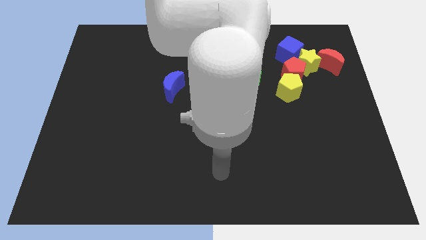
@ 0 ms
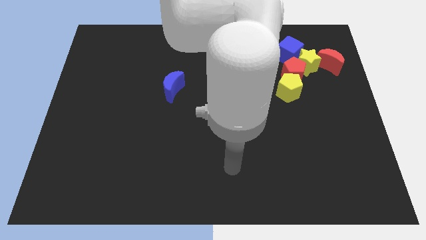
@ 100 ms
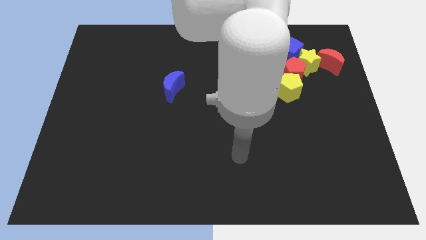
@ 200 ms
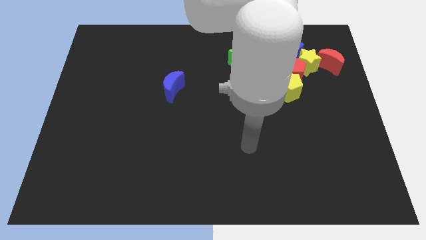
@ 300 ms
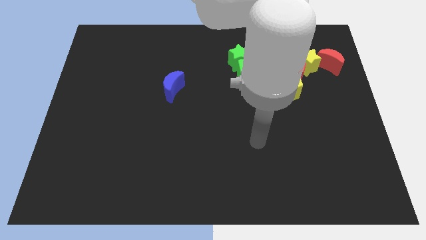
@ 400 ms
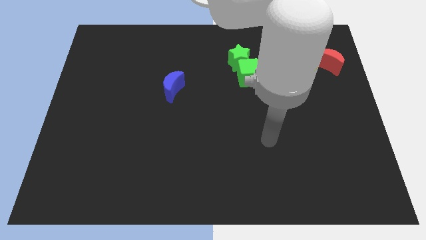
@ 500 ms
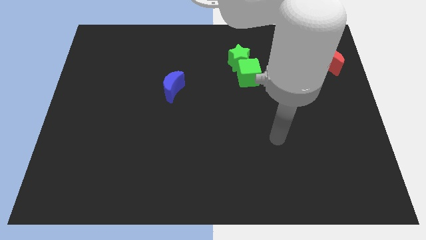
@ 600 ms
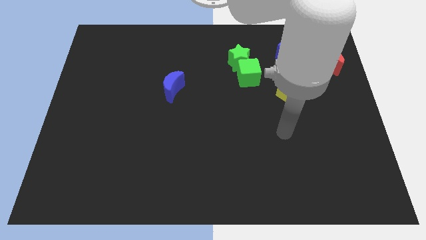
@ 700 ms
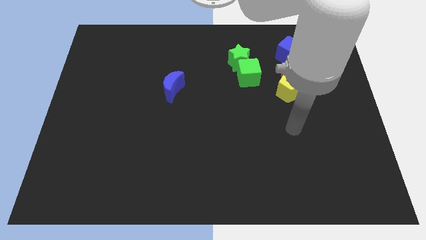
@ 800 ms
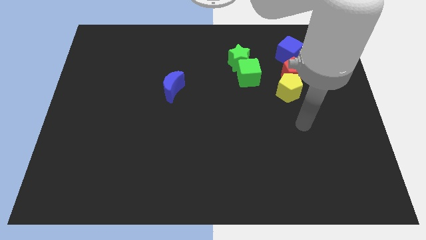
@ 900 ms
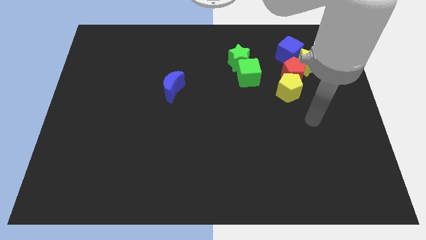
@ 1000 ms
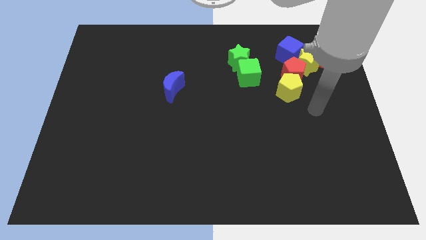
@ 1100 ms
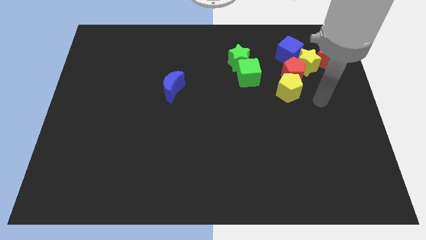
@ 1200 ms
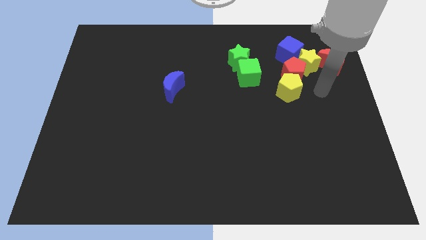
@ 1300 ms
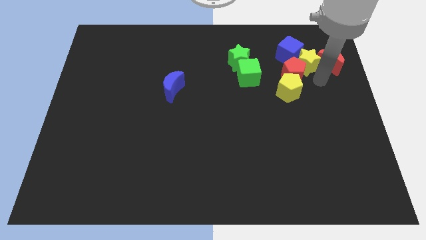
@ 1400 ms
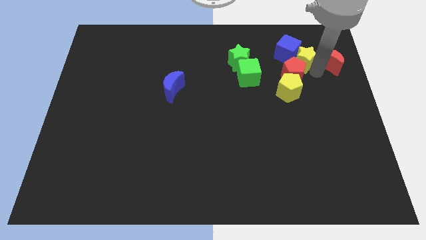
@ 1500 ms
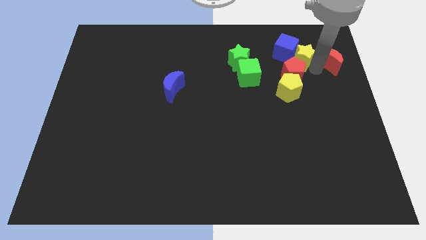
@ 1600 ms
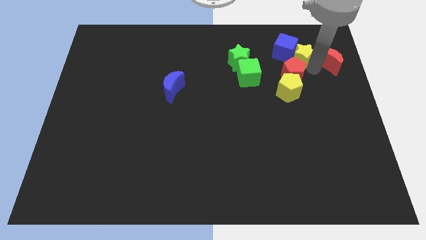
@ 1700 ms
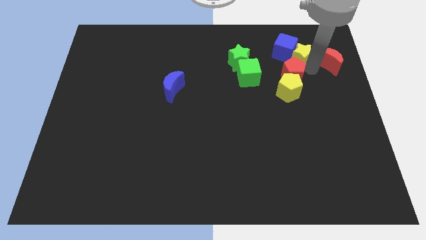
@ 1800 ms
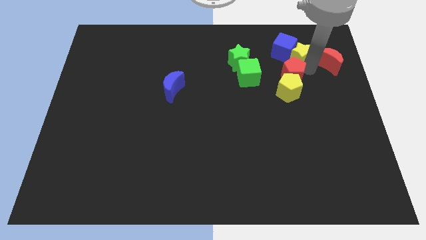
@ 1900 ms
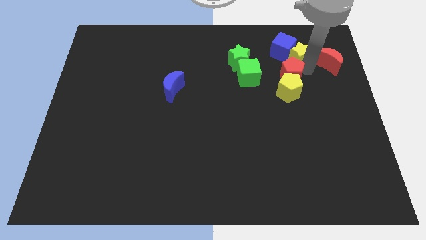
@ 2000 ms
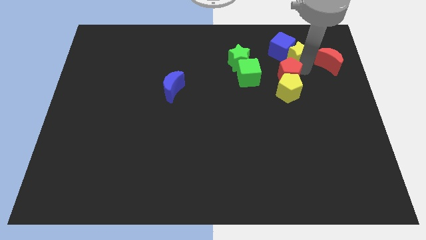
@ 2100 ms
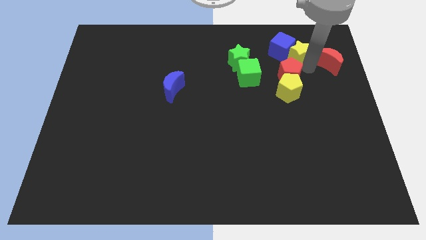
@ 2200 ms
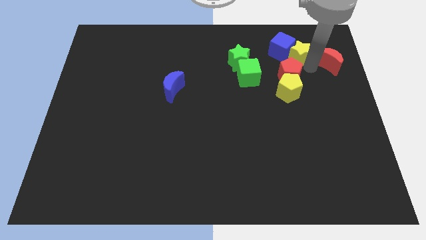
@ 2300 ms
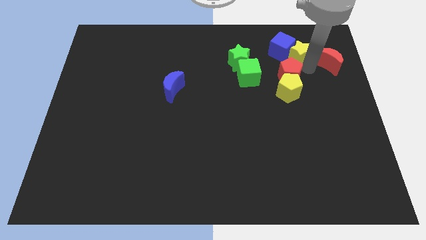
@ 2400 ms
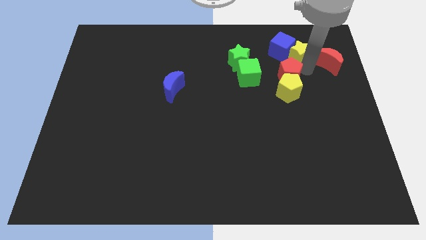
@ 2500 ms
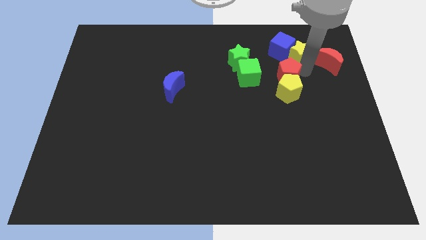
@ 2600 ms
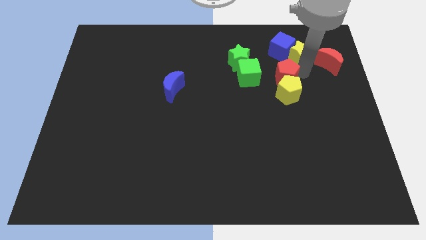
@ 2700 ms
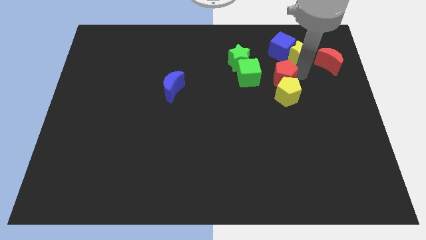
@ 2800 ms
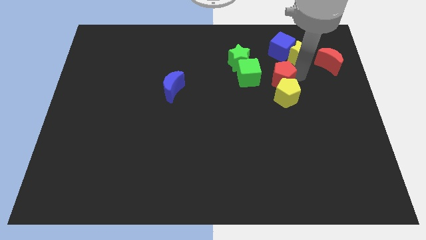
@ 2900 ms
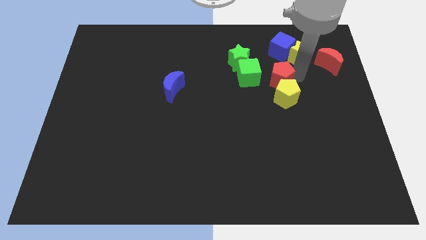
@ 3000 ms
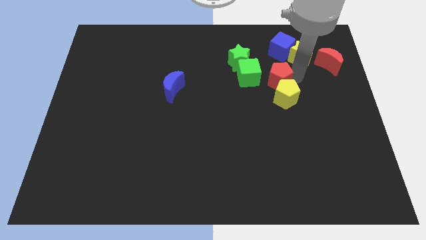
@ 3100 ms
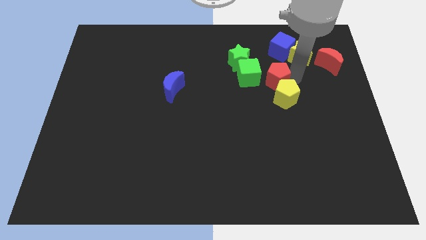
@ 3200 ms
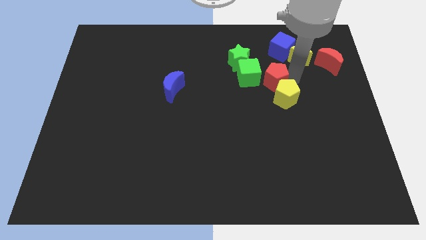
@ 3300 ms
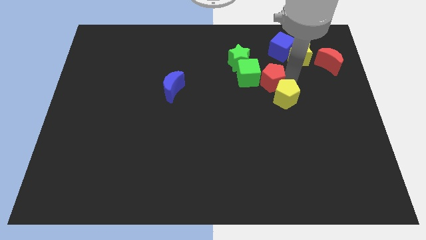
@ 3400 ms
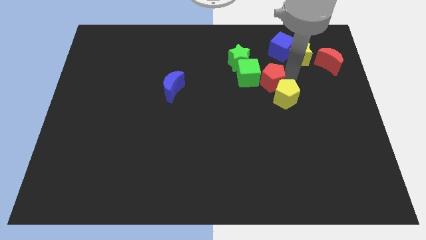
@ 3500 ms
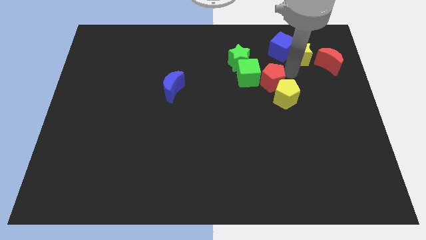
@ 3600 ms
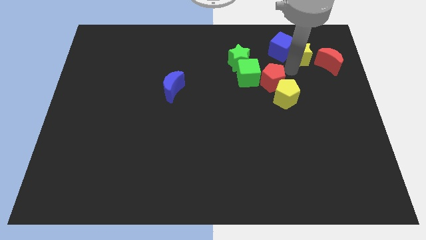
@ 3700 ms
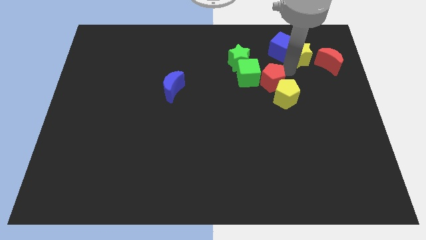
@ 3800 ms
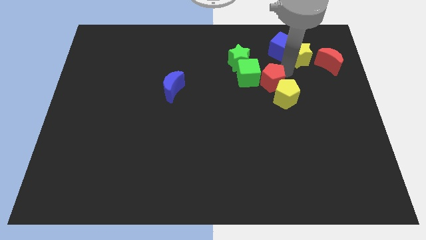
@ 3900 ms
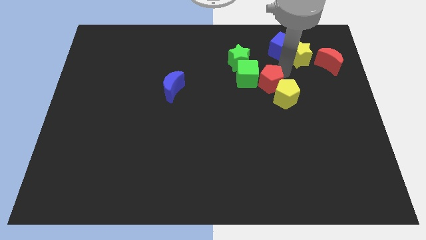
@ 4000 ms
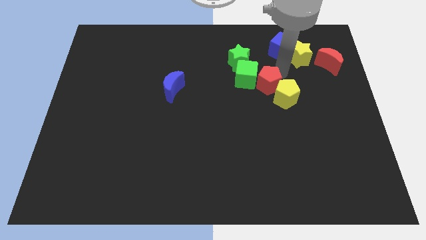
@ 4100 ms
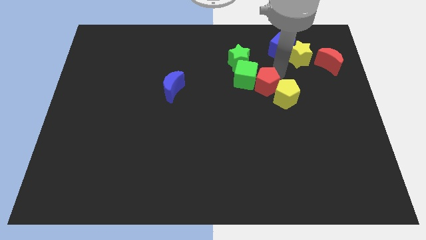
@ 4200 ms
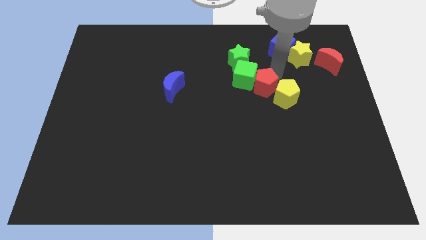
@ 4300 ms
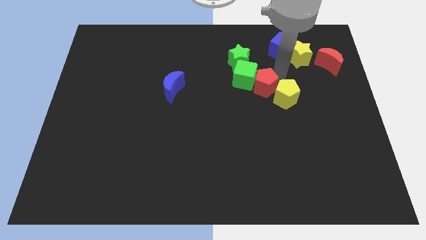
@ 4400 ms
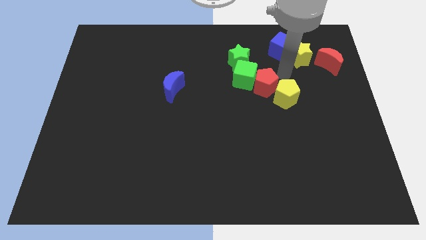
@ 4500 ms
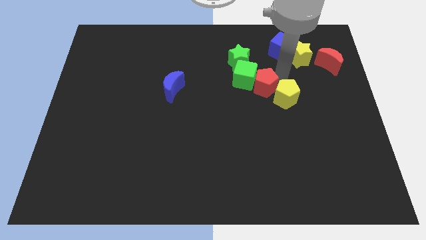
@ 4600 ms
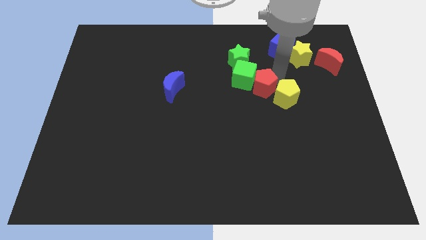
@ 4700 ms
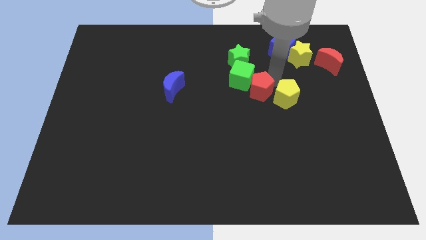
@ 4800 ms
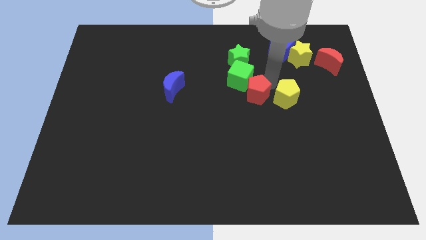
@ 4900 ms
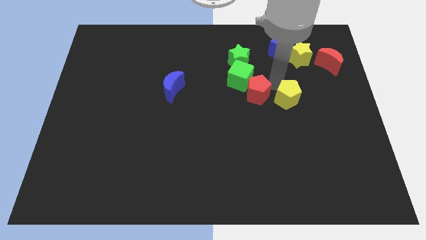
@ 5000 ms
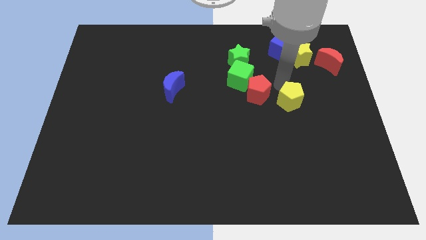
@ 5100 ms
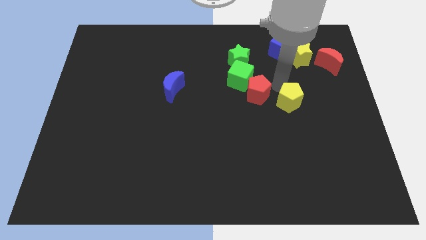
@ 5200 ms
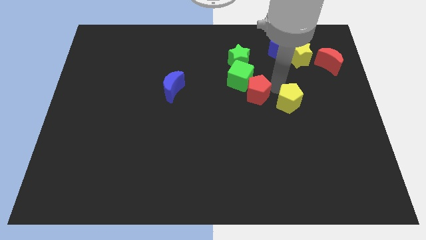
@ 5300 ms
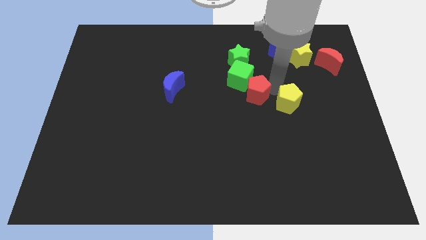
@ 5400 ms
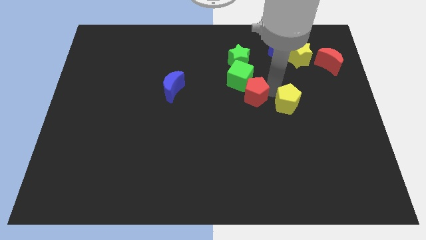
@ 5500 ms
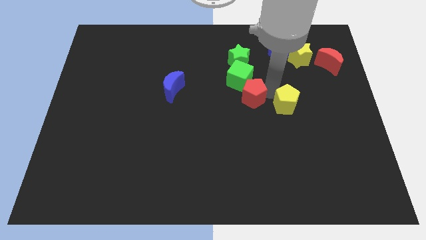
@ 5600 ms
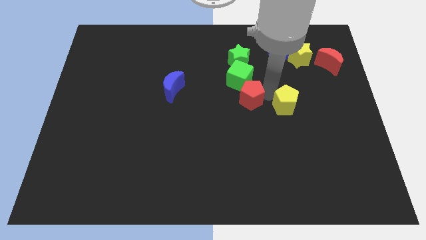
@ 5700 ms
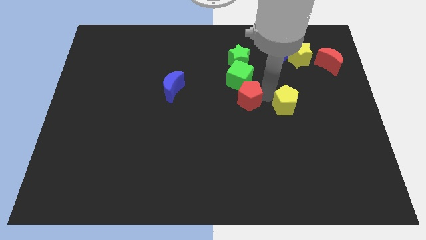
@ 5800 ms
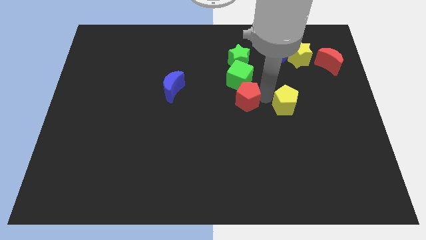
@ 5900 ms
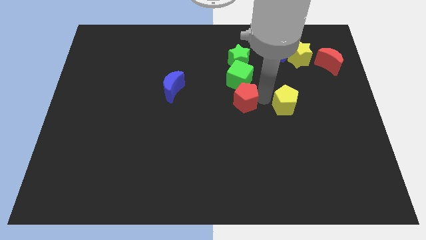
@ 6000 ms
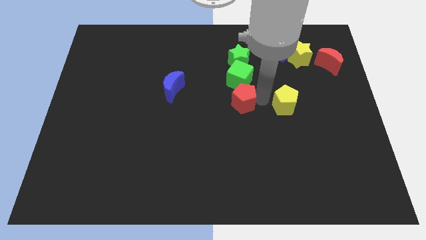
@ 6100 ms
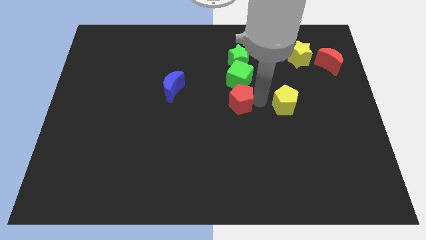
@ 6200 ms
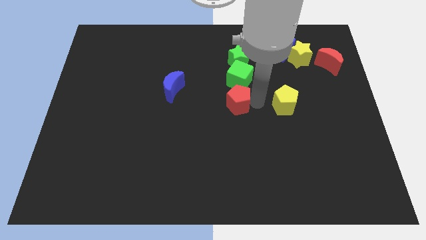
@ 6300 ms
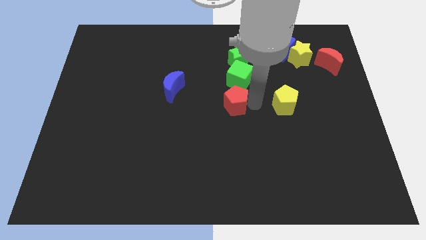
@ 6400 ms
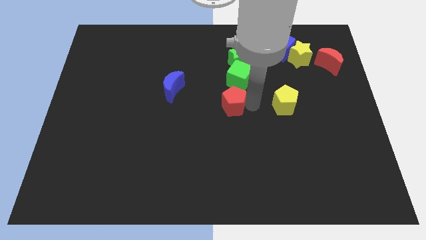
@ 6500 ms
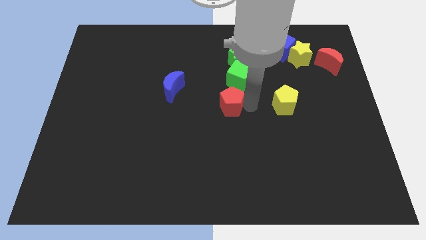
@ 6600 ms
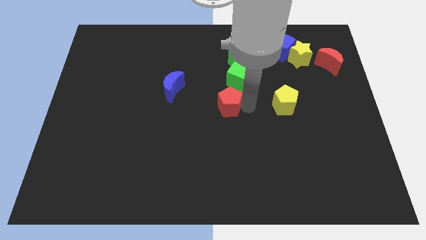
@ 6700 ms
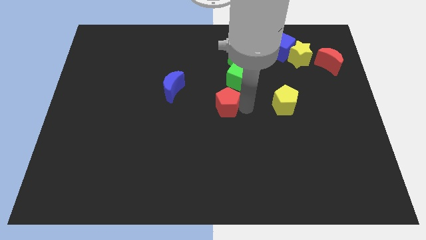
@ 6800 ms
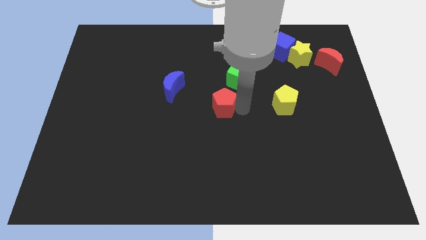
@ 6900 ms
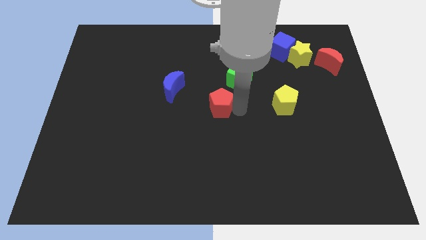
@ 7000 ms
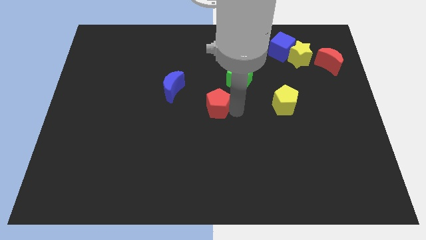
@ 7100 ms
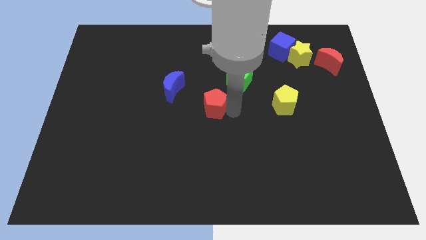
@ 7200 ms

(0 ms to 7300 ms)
push the red pentagon to the bottom right of the blue moon

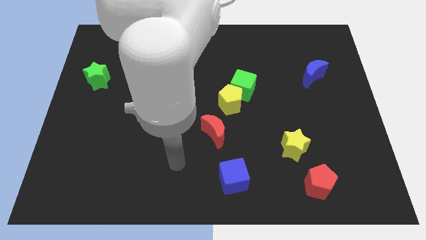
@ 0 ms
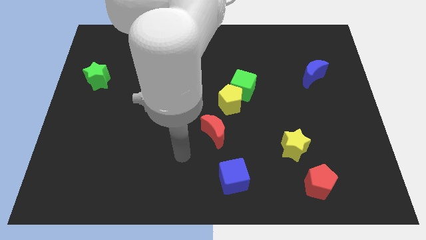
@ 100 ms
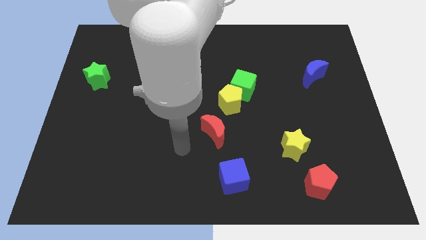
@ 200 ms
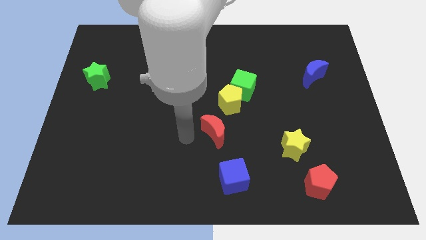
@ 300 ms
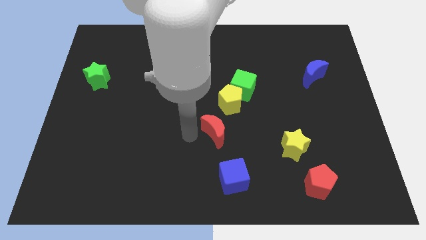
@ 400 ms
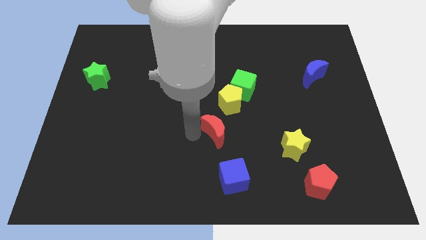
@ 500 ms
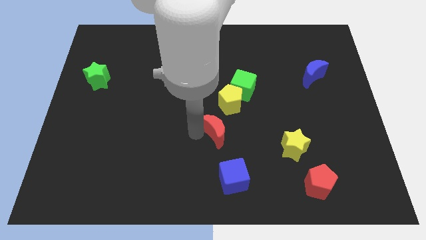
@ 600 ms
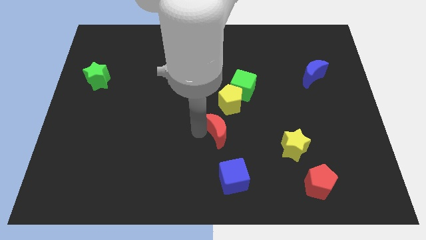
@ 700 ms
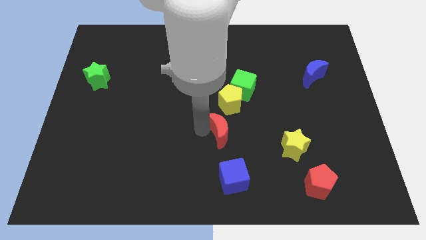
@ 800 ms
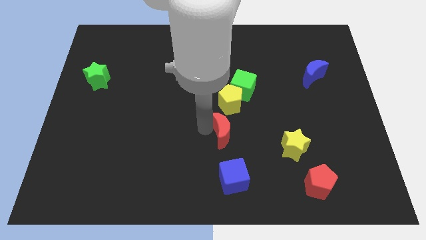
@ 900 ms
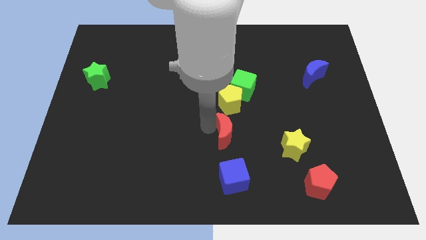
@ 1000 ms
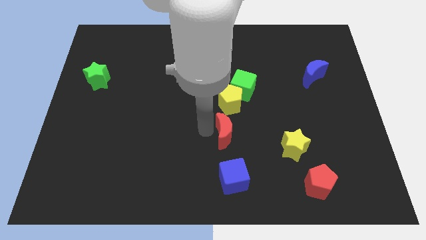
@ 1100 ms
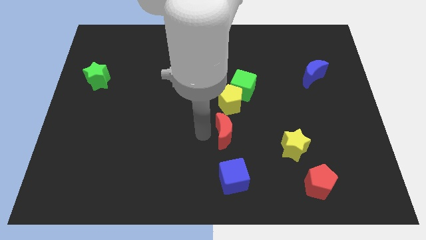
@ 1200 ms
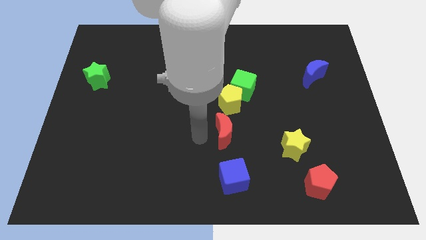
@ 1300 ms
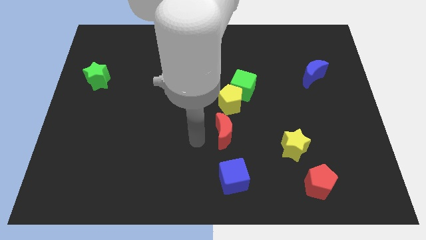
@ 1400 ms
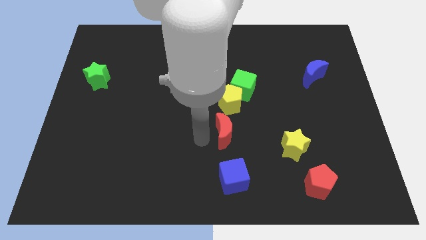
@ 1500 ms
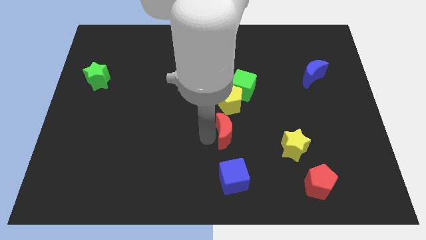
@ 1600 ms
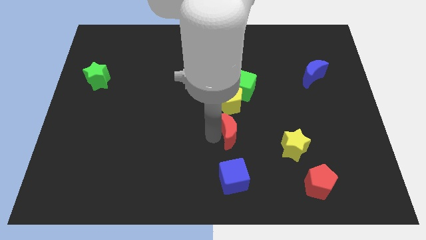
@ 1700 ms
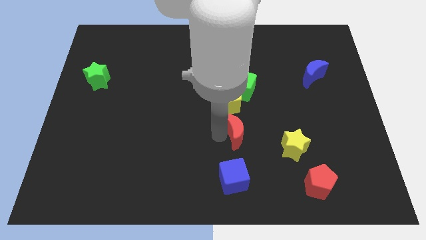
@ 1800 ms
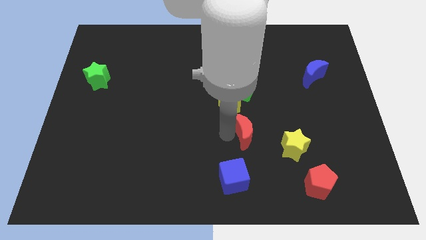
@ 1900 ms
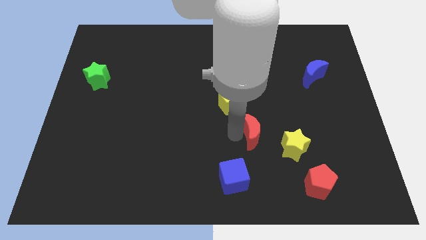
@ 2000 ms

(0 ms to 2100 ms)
slide the red moon to the top left of the yellow star
